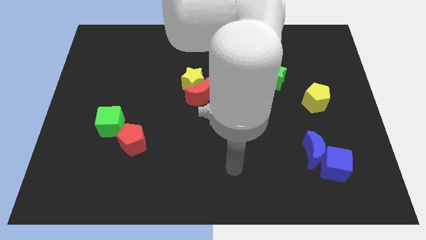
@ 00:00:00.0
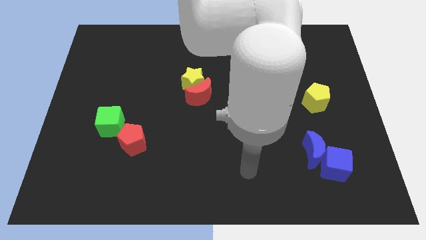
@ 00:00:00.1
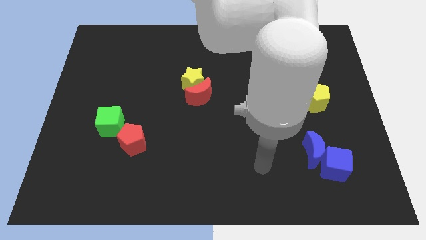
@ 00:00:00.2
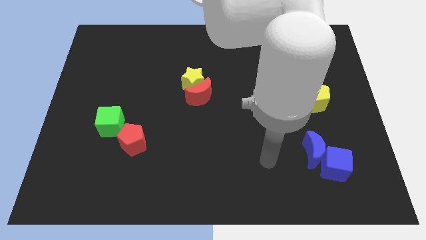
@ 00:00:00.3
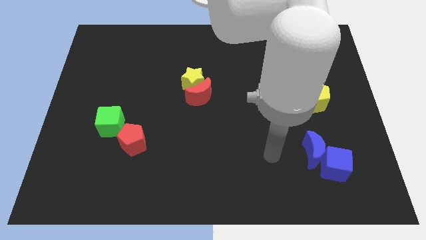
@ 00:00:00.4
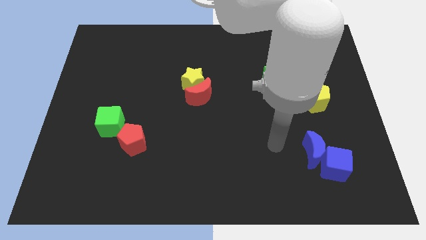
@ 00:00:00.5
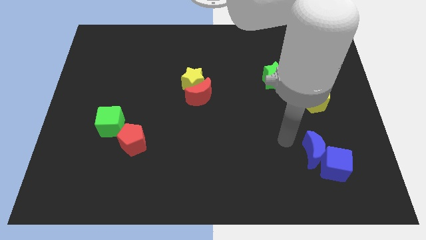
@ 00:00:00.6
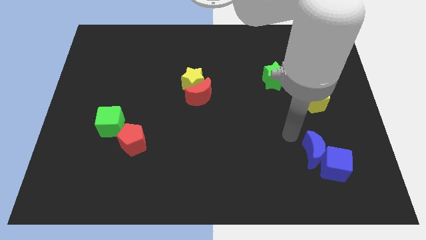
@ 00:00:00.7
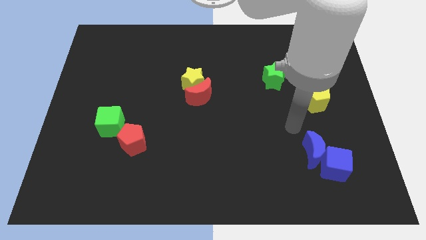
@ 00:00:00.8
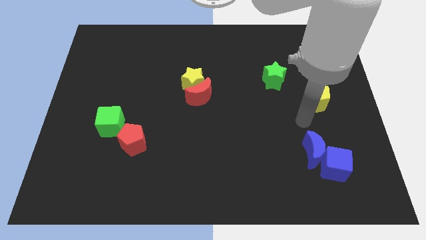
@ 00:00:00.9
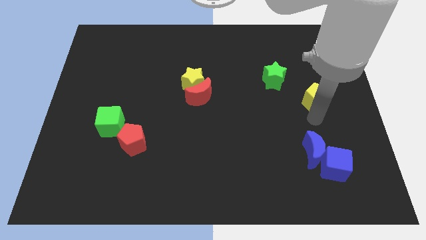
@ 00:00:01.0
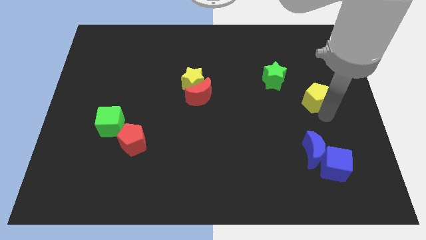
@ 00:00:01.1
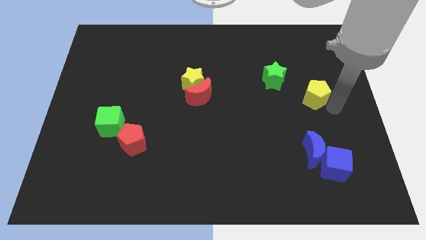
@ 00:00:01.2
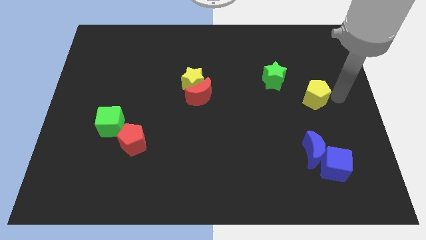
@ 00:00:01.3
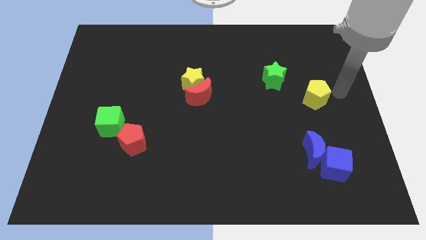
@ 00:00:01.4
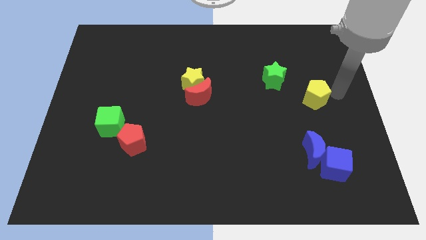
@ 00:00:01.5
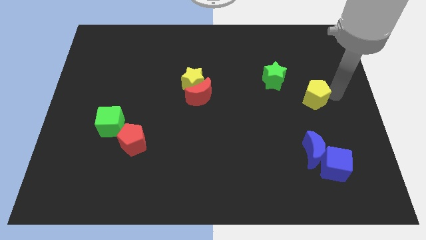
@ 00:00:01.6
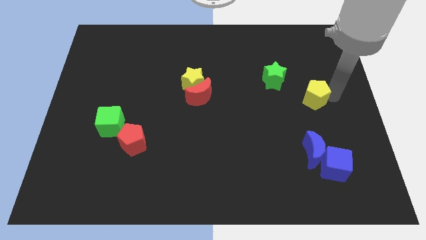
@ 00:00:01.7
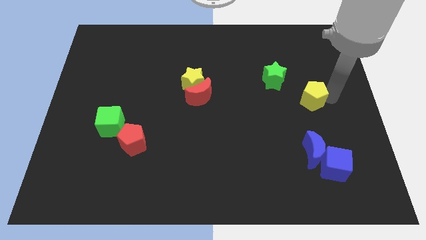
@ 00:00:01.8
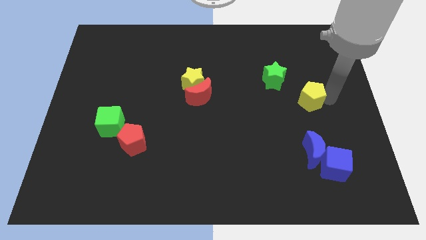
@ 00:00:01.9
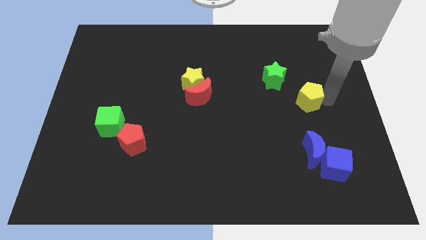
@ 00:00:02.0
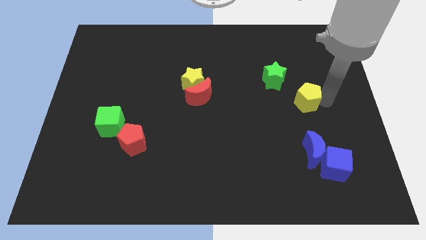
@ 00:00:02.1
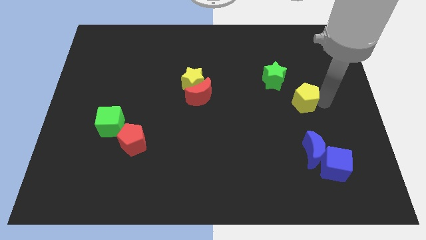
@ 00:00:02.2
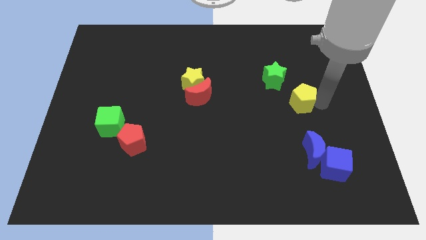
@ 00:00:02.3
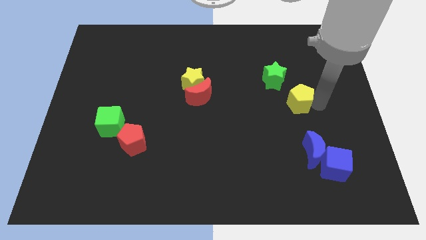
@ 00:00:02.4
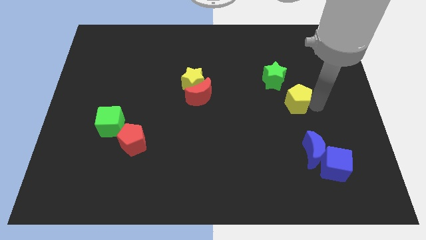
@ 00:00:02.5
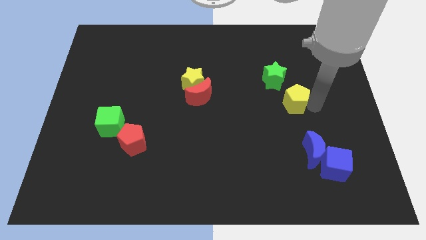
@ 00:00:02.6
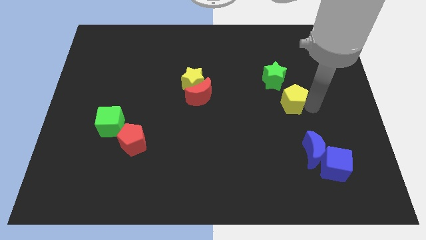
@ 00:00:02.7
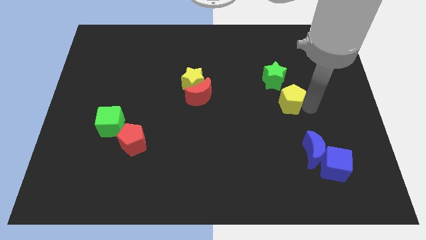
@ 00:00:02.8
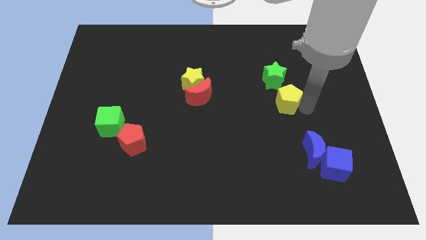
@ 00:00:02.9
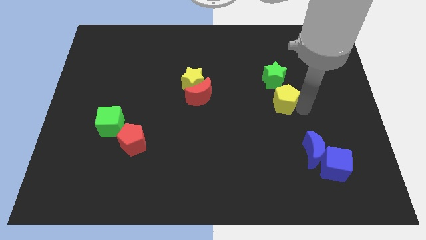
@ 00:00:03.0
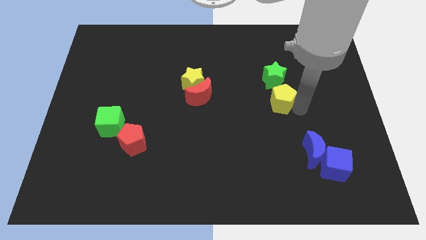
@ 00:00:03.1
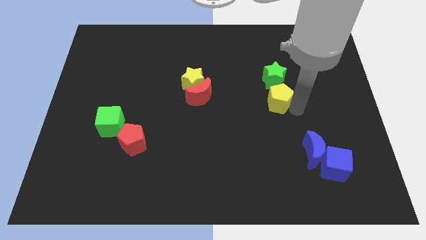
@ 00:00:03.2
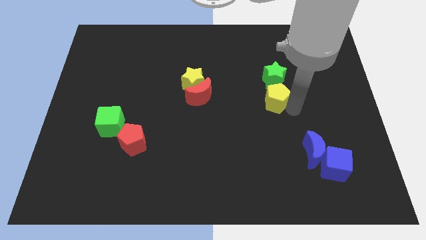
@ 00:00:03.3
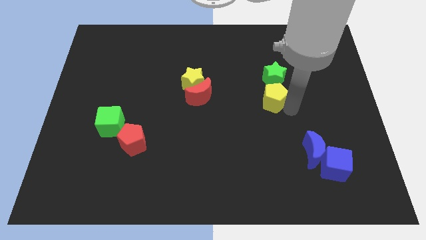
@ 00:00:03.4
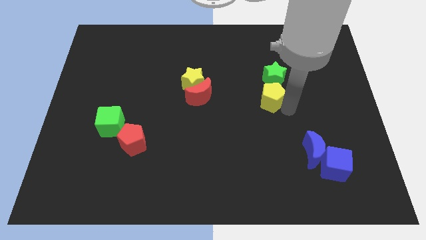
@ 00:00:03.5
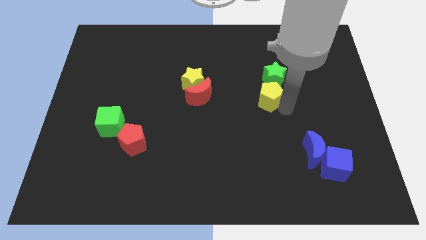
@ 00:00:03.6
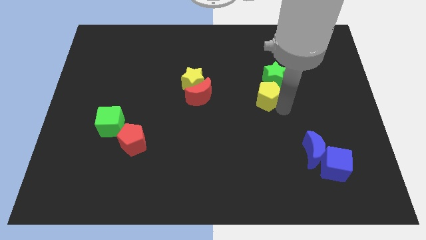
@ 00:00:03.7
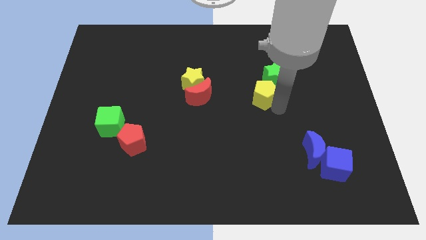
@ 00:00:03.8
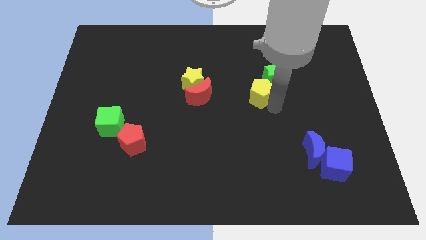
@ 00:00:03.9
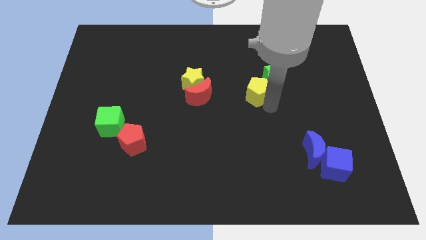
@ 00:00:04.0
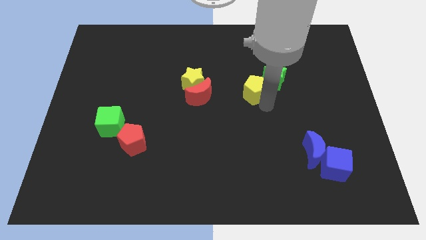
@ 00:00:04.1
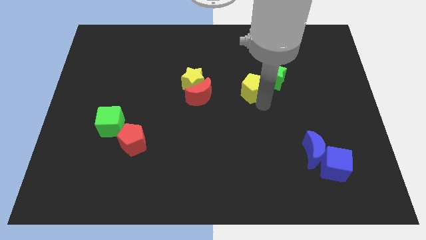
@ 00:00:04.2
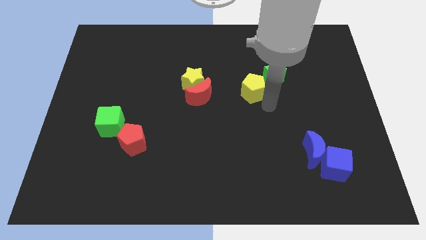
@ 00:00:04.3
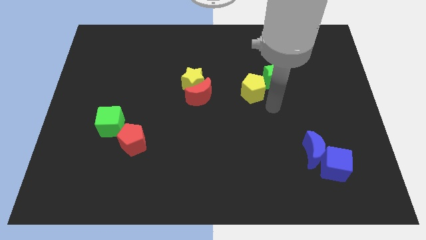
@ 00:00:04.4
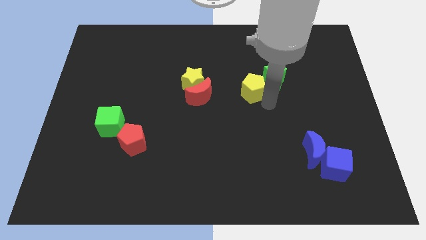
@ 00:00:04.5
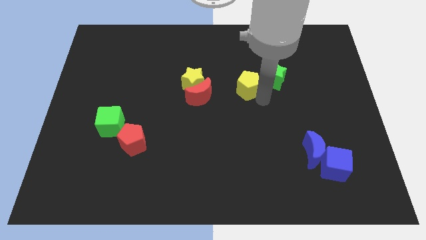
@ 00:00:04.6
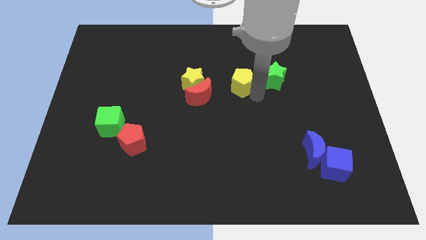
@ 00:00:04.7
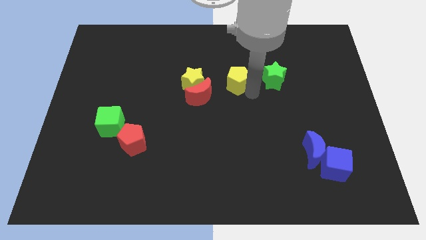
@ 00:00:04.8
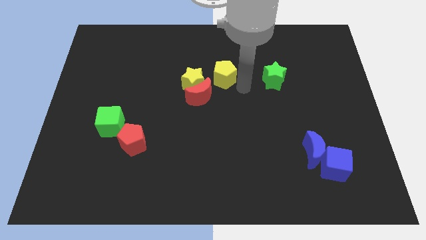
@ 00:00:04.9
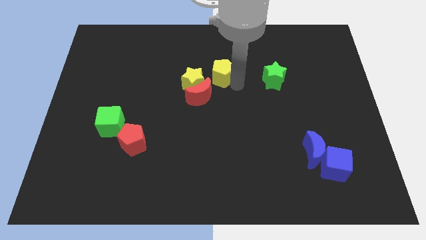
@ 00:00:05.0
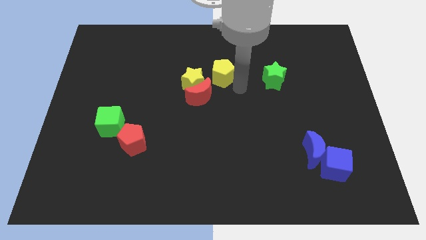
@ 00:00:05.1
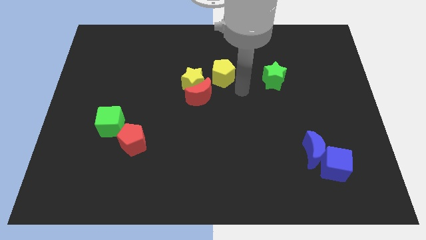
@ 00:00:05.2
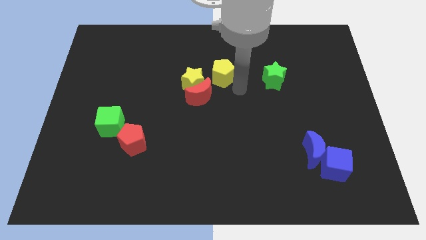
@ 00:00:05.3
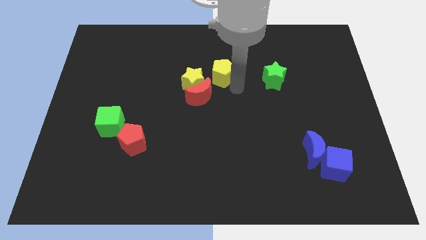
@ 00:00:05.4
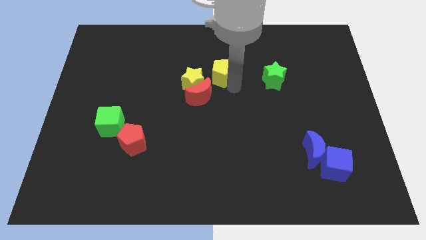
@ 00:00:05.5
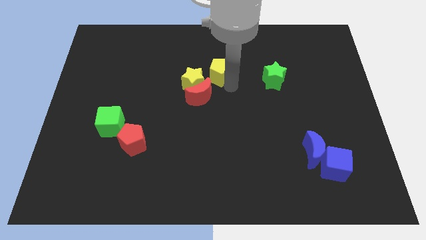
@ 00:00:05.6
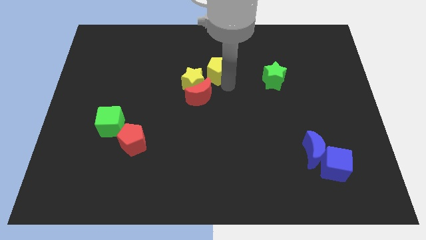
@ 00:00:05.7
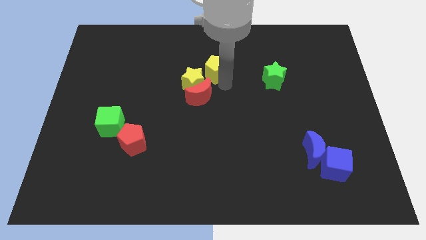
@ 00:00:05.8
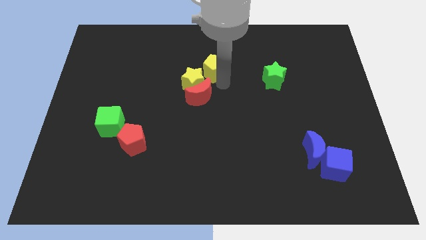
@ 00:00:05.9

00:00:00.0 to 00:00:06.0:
put the yellow pentagon to the top of the yellow star

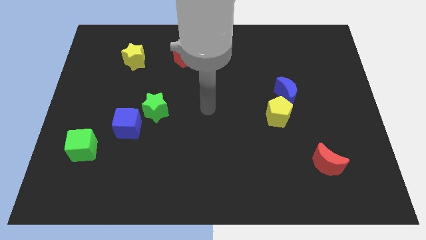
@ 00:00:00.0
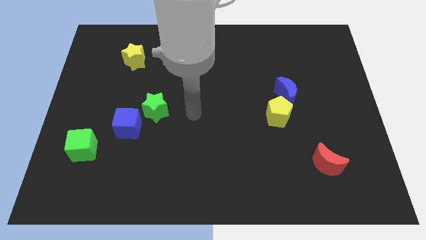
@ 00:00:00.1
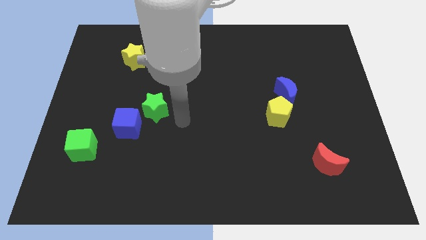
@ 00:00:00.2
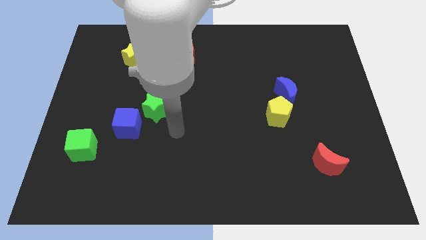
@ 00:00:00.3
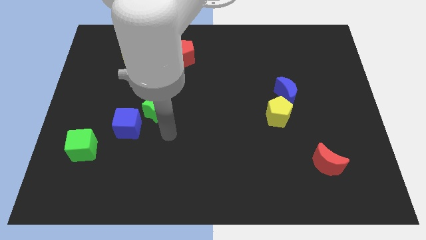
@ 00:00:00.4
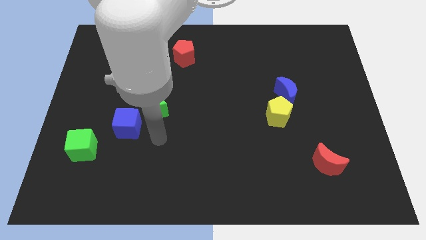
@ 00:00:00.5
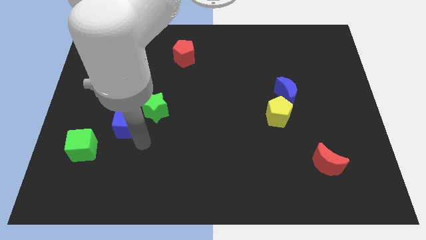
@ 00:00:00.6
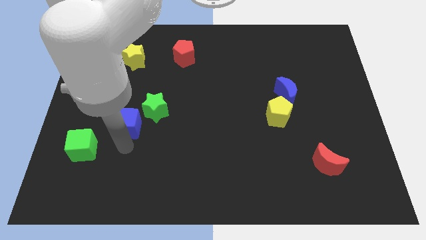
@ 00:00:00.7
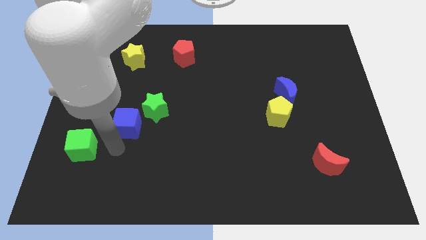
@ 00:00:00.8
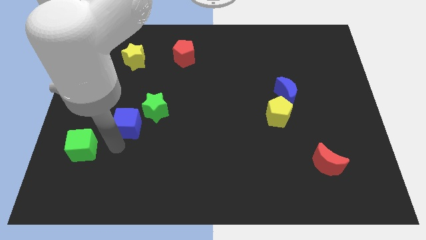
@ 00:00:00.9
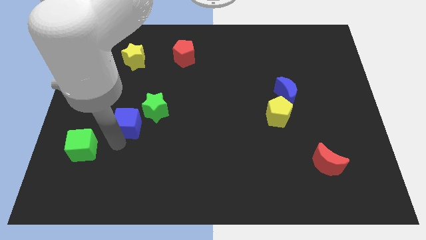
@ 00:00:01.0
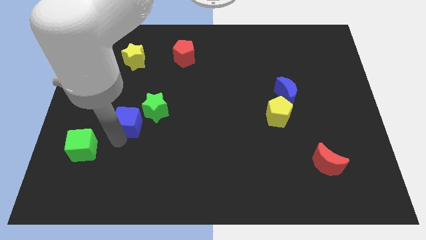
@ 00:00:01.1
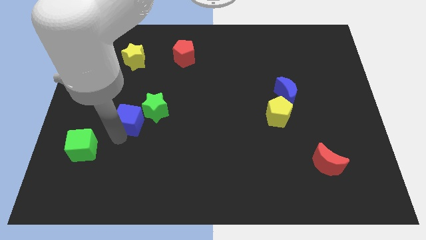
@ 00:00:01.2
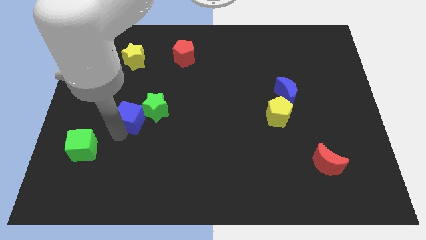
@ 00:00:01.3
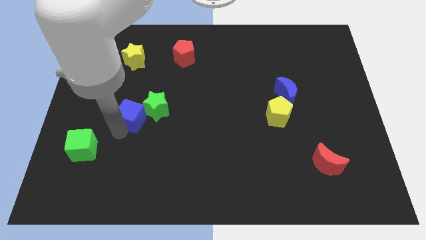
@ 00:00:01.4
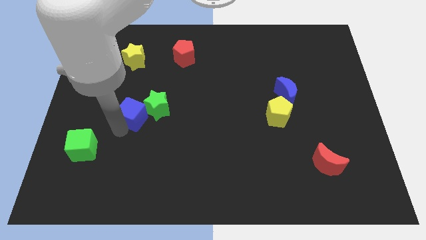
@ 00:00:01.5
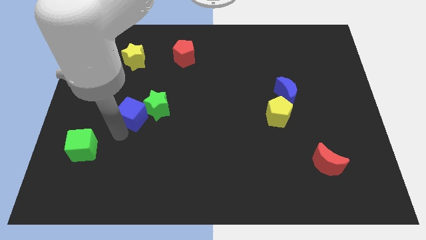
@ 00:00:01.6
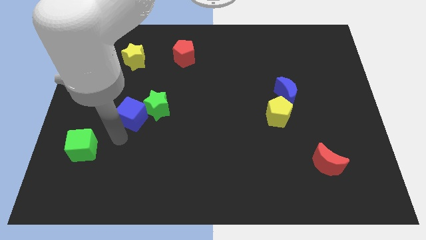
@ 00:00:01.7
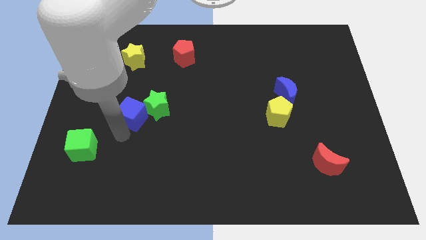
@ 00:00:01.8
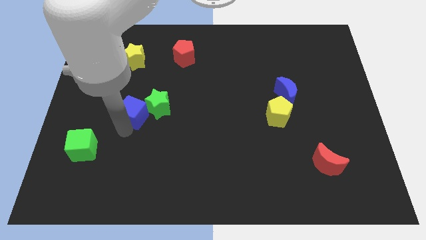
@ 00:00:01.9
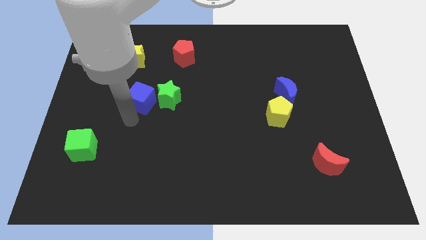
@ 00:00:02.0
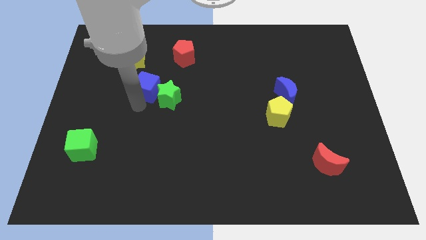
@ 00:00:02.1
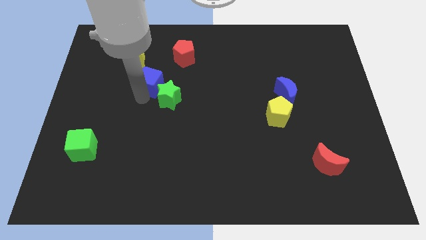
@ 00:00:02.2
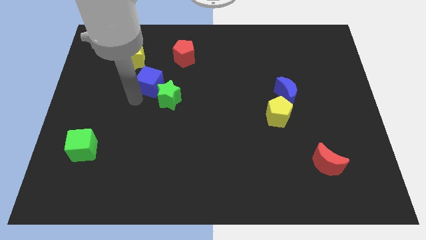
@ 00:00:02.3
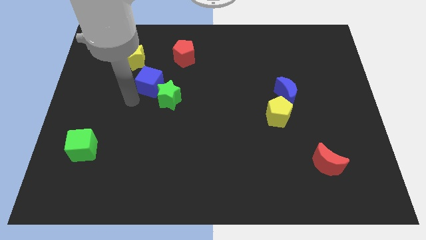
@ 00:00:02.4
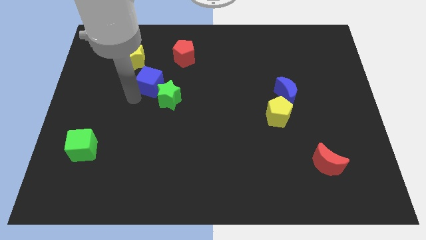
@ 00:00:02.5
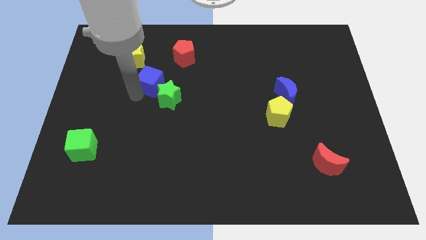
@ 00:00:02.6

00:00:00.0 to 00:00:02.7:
push the blue cube above the green star
